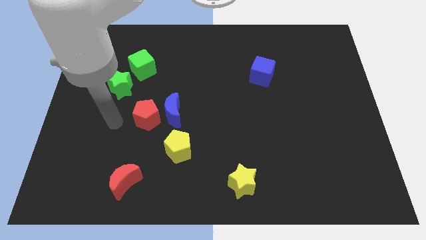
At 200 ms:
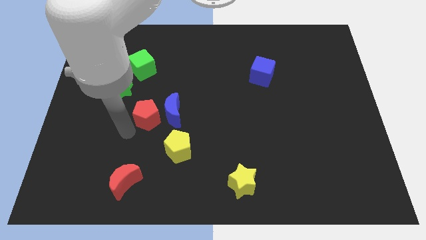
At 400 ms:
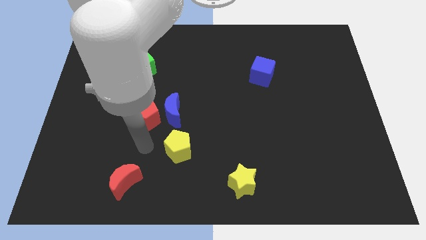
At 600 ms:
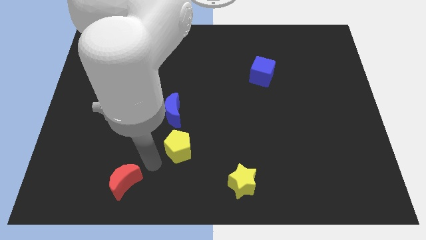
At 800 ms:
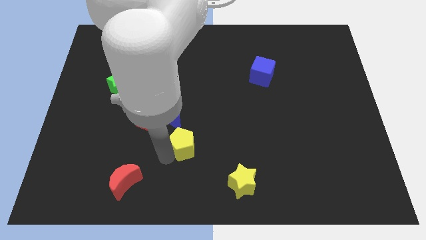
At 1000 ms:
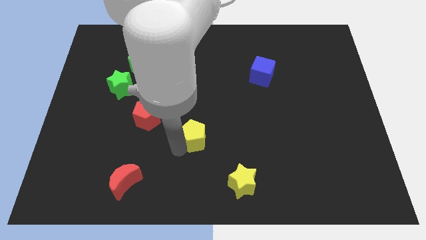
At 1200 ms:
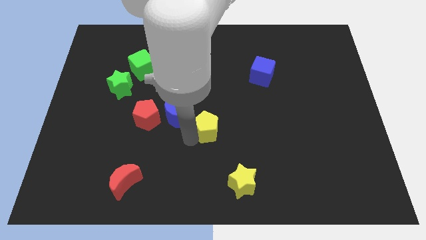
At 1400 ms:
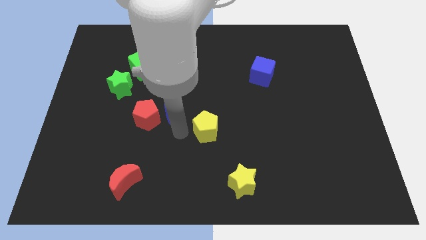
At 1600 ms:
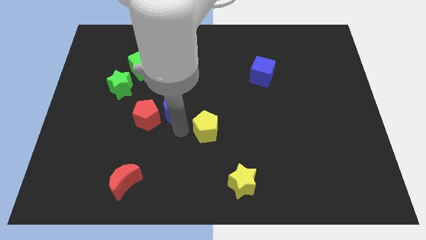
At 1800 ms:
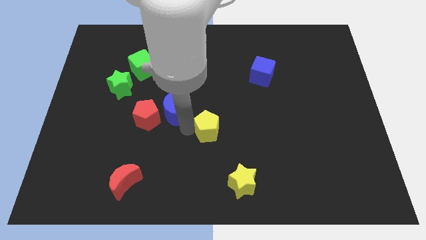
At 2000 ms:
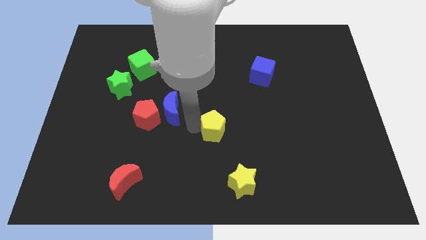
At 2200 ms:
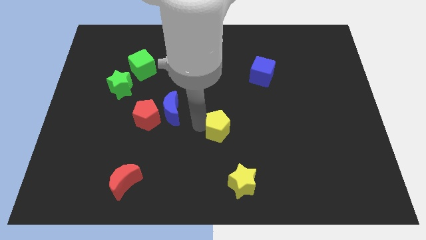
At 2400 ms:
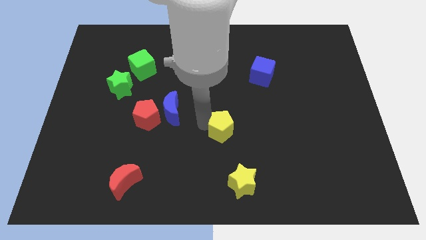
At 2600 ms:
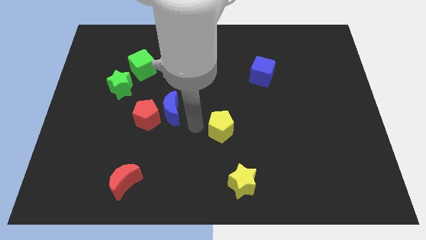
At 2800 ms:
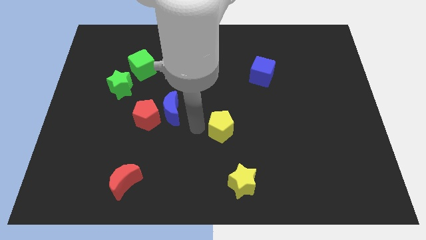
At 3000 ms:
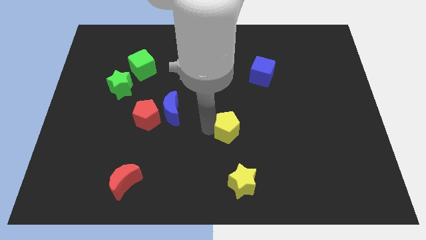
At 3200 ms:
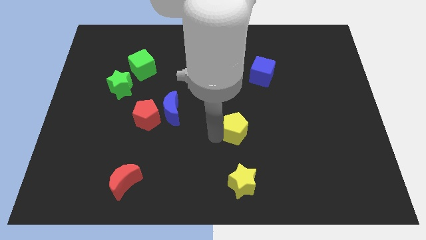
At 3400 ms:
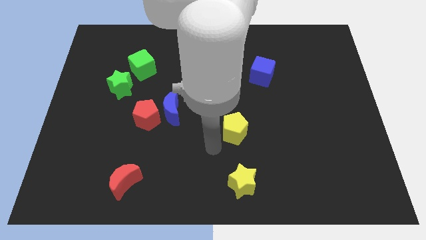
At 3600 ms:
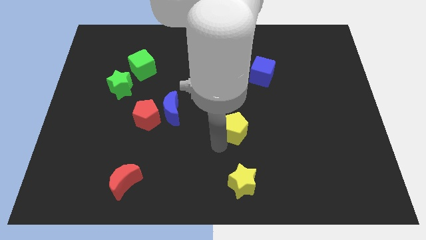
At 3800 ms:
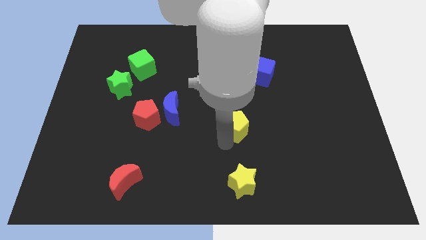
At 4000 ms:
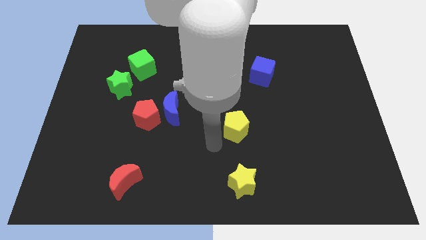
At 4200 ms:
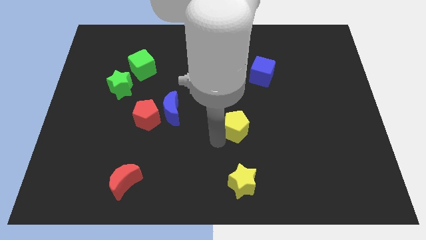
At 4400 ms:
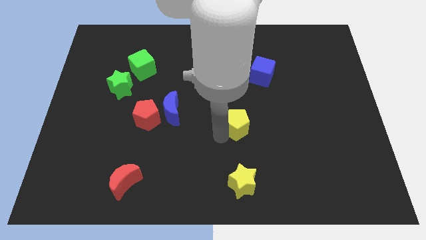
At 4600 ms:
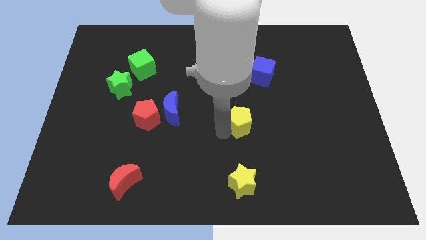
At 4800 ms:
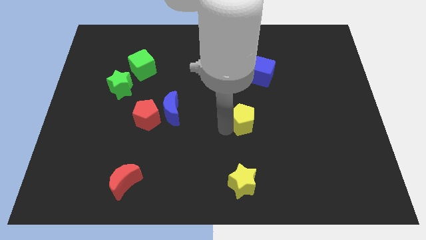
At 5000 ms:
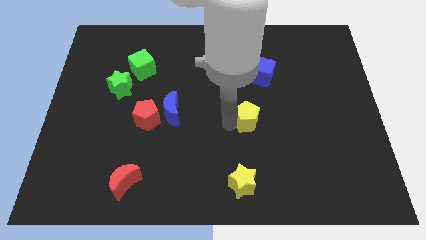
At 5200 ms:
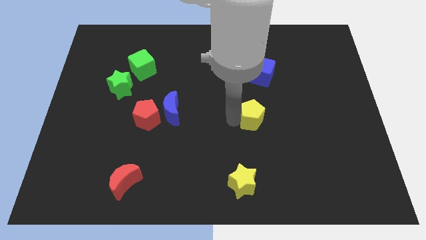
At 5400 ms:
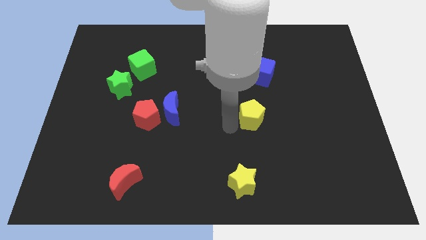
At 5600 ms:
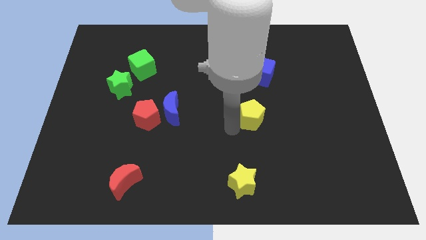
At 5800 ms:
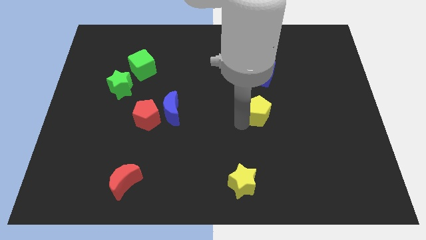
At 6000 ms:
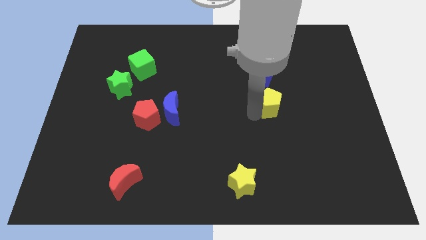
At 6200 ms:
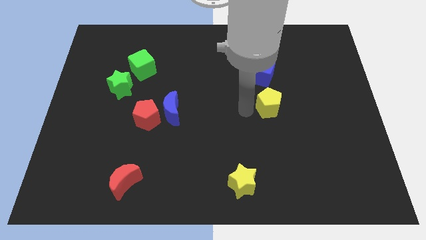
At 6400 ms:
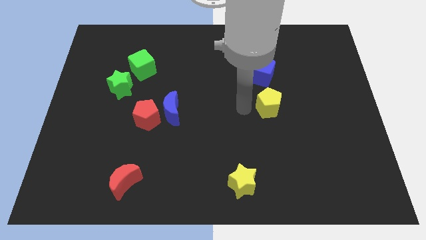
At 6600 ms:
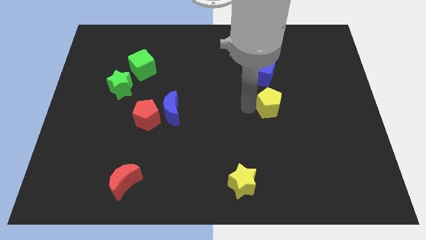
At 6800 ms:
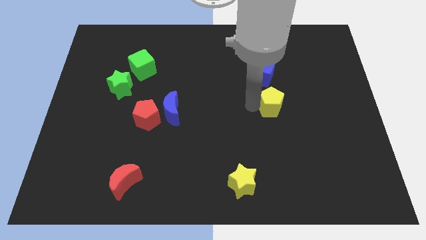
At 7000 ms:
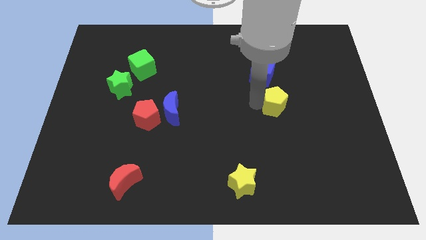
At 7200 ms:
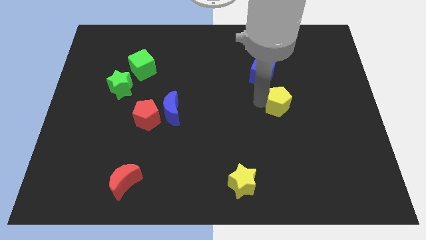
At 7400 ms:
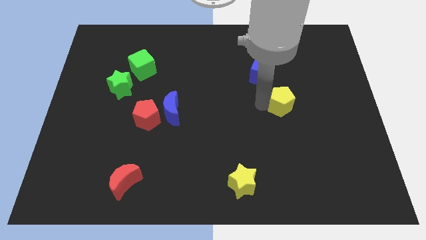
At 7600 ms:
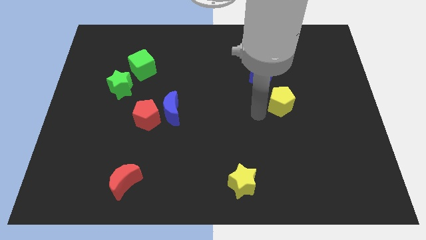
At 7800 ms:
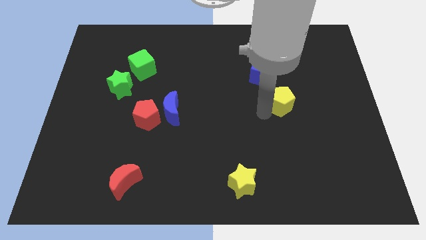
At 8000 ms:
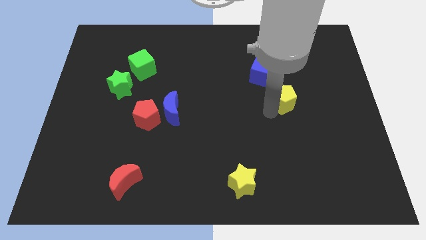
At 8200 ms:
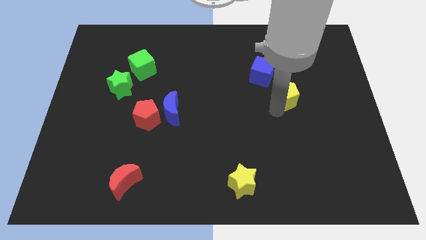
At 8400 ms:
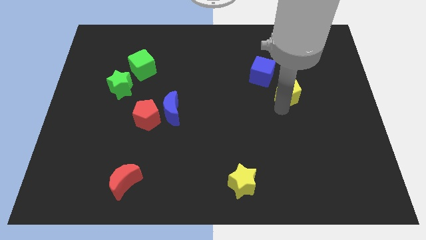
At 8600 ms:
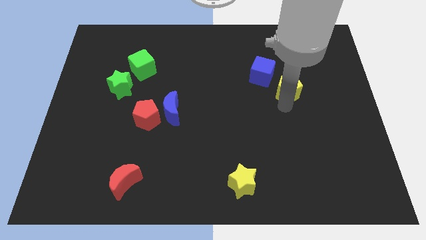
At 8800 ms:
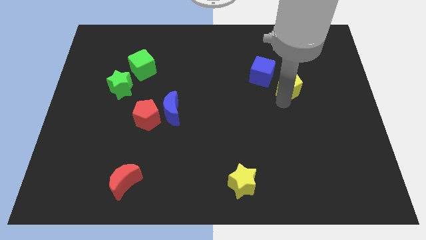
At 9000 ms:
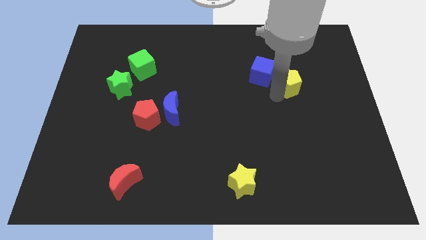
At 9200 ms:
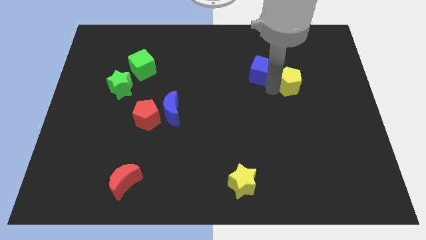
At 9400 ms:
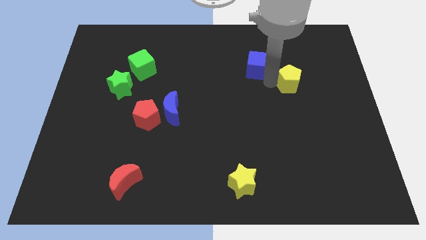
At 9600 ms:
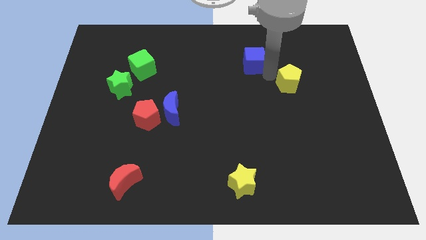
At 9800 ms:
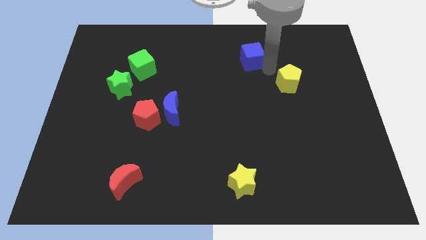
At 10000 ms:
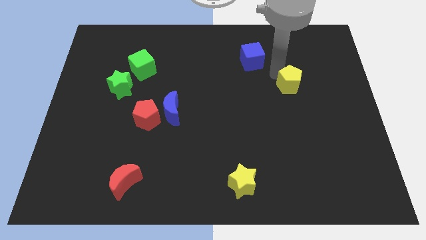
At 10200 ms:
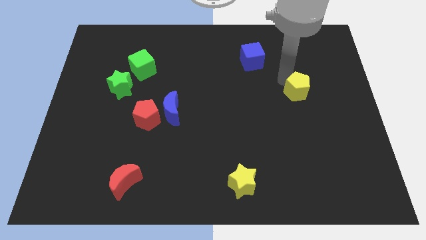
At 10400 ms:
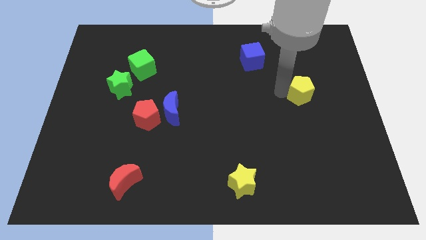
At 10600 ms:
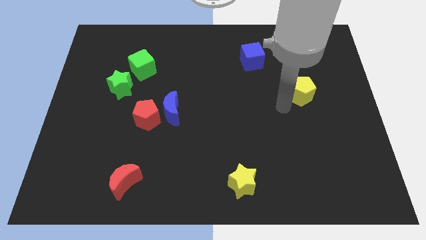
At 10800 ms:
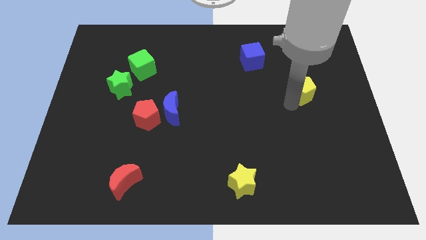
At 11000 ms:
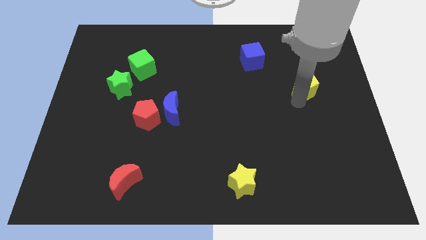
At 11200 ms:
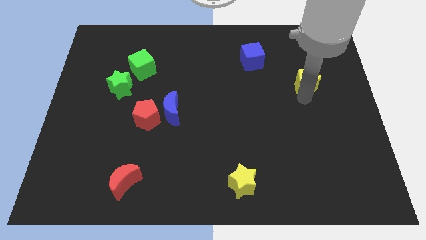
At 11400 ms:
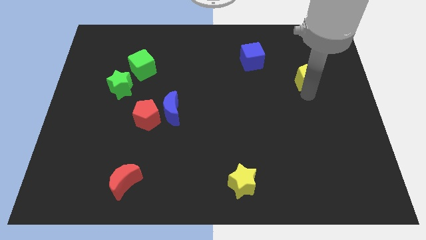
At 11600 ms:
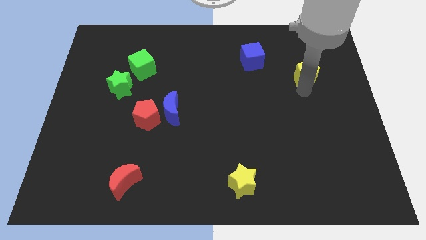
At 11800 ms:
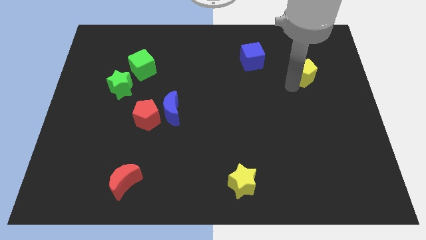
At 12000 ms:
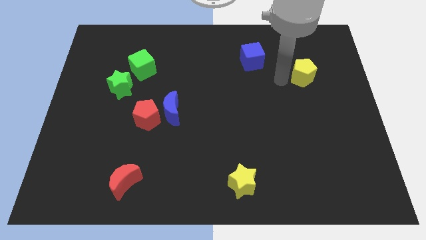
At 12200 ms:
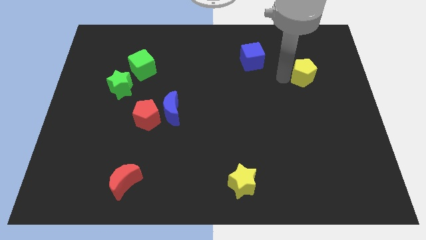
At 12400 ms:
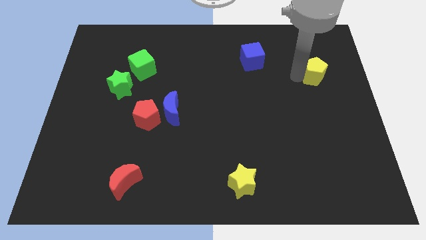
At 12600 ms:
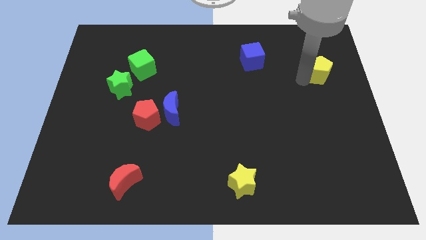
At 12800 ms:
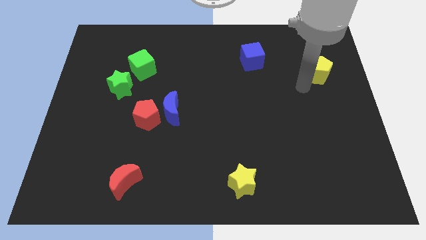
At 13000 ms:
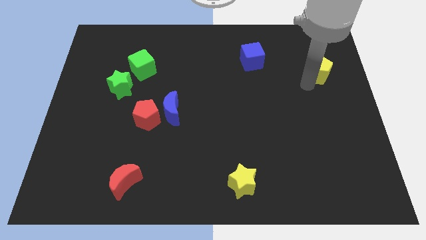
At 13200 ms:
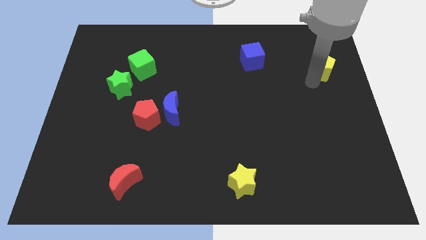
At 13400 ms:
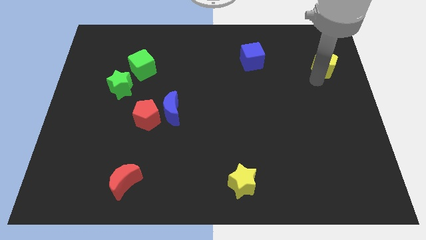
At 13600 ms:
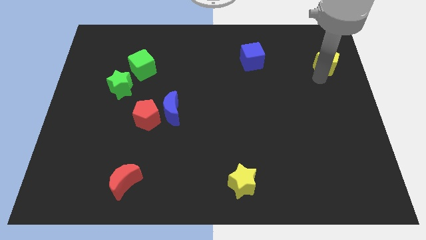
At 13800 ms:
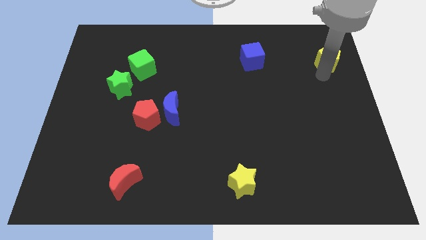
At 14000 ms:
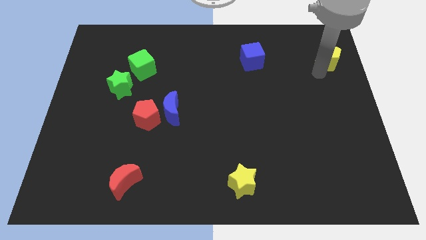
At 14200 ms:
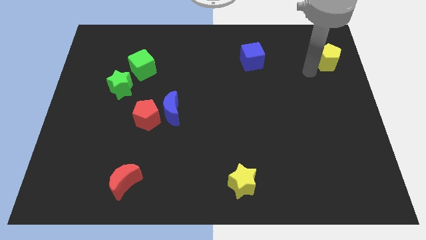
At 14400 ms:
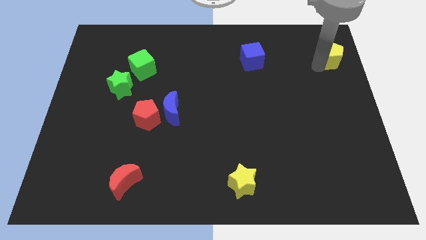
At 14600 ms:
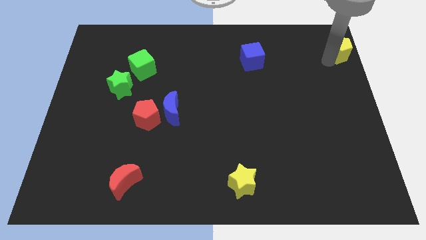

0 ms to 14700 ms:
slide the yellow pentagon to the top right of the board
